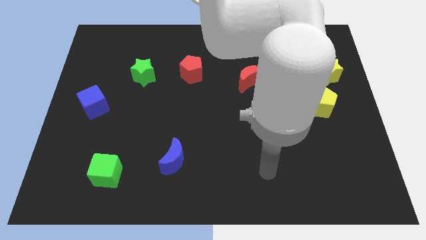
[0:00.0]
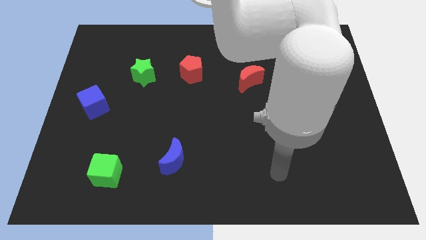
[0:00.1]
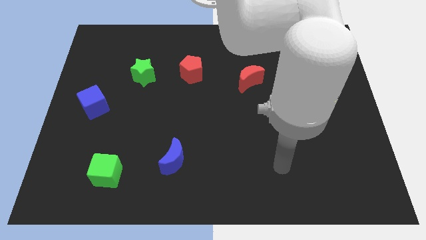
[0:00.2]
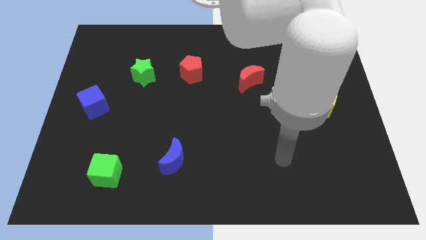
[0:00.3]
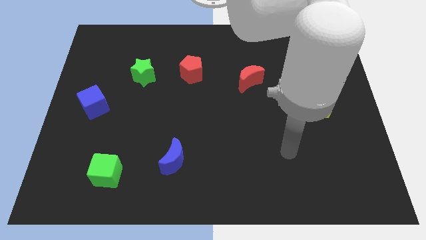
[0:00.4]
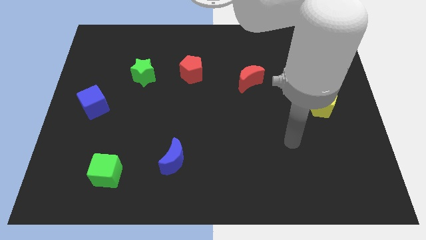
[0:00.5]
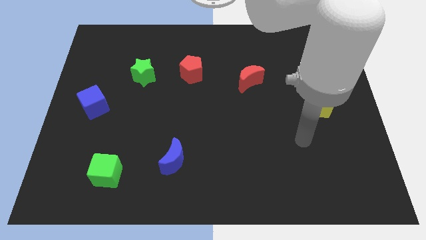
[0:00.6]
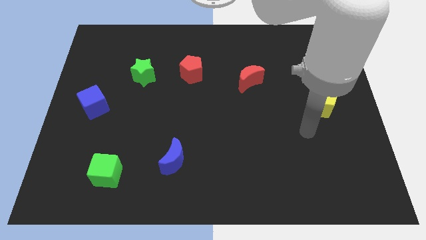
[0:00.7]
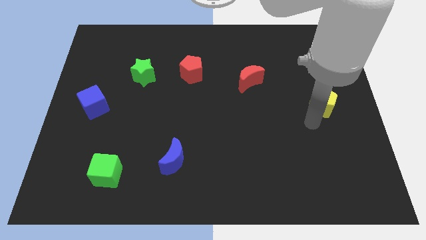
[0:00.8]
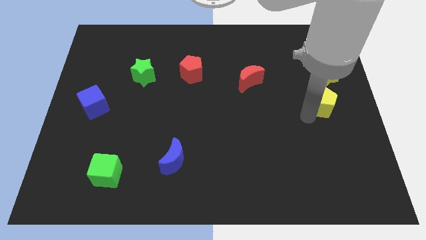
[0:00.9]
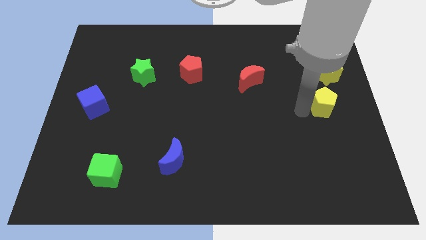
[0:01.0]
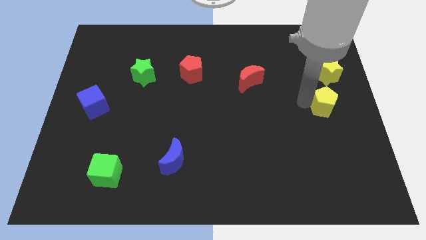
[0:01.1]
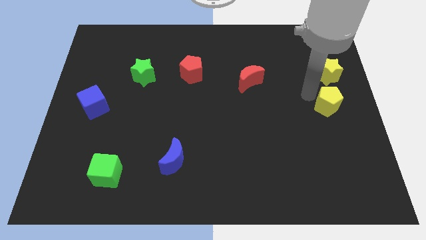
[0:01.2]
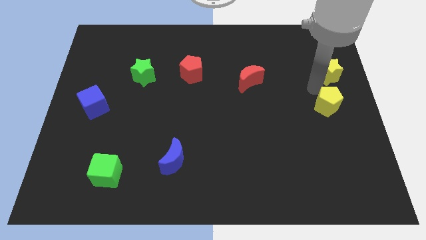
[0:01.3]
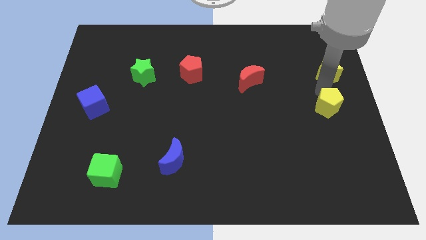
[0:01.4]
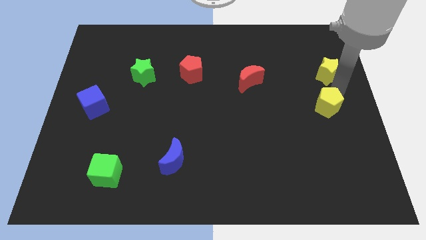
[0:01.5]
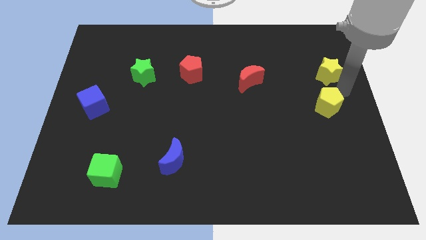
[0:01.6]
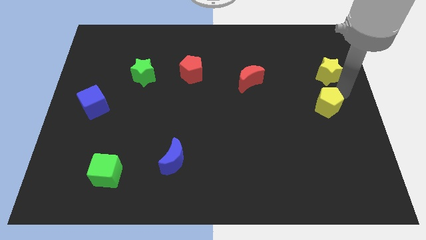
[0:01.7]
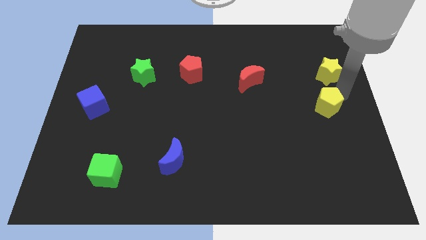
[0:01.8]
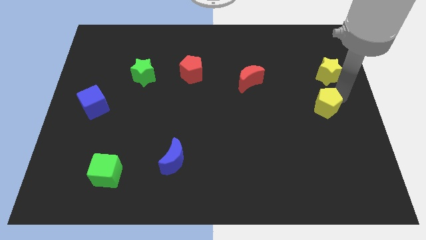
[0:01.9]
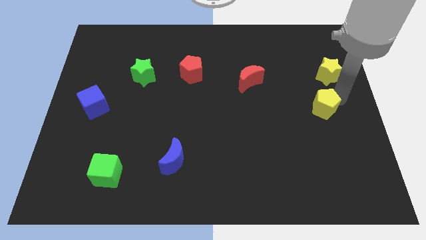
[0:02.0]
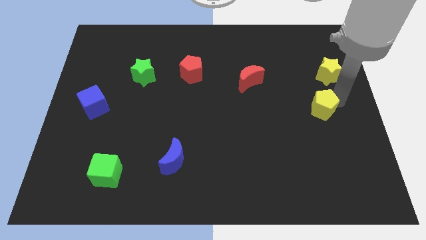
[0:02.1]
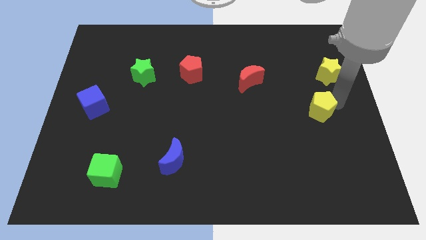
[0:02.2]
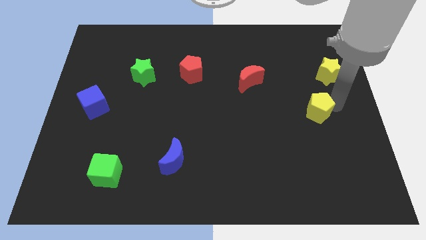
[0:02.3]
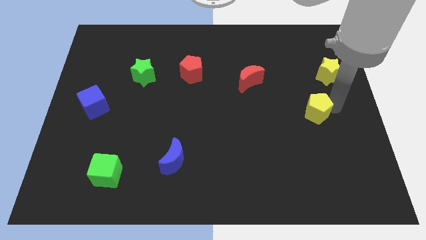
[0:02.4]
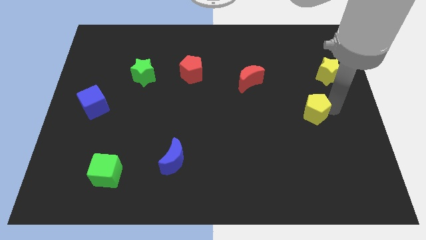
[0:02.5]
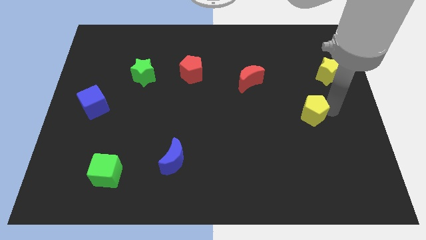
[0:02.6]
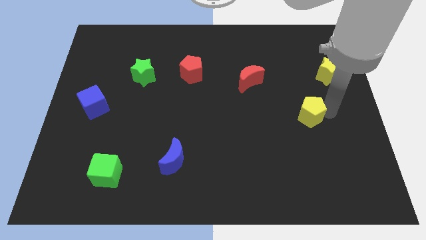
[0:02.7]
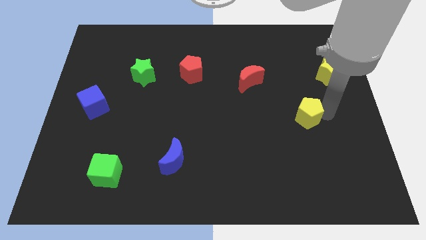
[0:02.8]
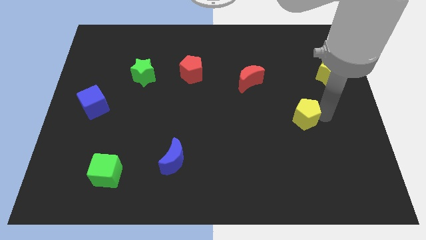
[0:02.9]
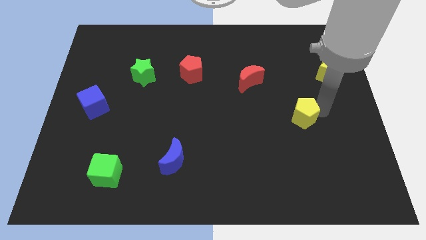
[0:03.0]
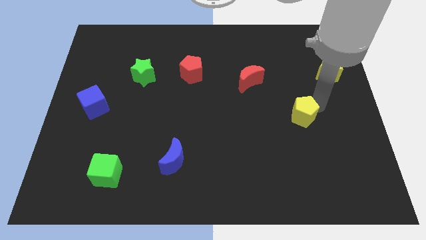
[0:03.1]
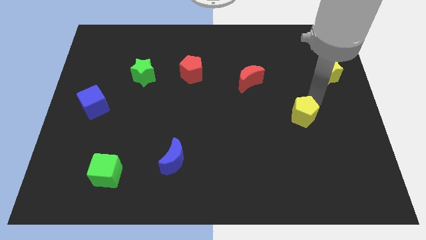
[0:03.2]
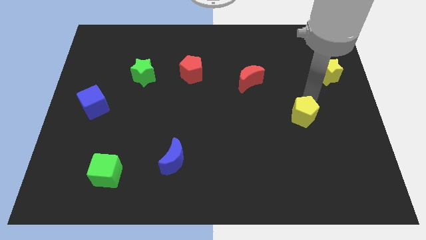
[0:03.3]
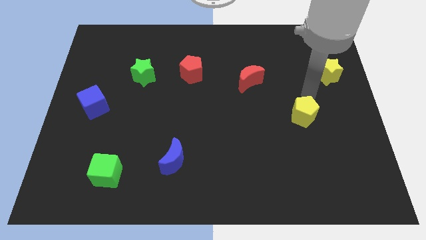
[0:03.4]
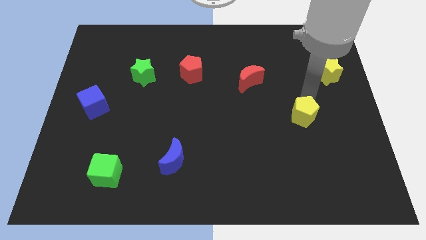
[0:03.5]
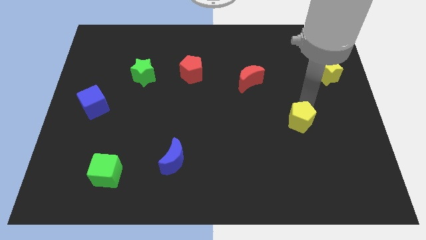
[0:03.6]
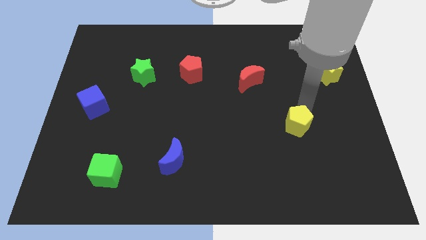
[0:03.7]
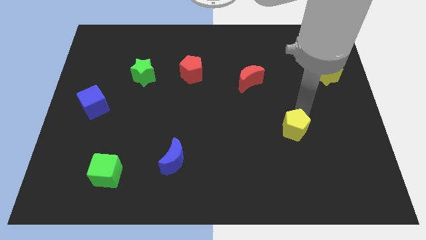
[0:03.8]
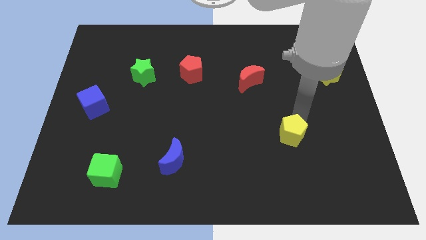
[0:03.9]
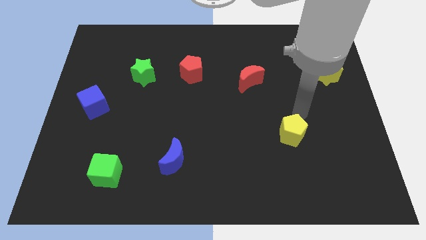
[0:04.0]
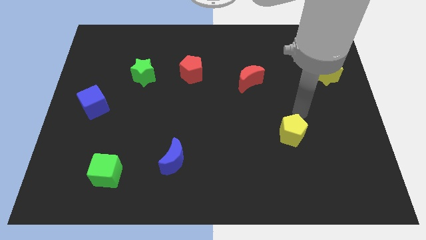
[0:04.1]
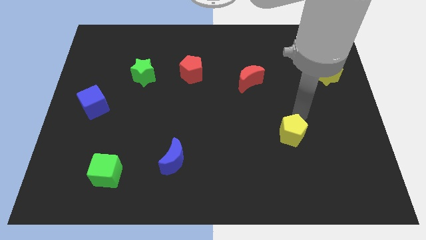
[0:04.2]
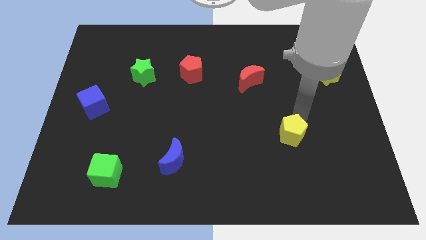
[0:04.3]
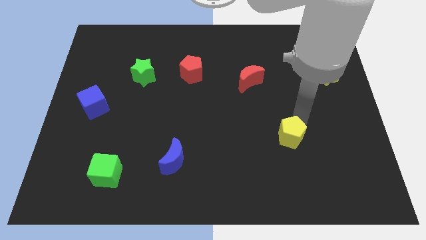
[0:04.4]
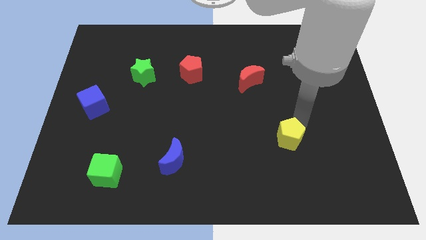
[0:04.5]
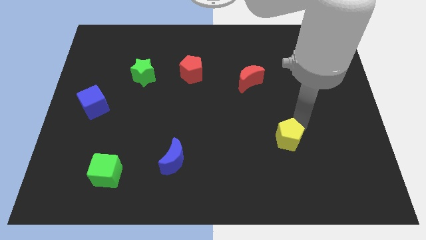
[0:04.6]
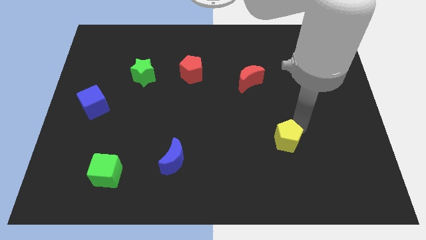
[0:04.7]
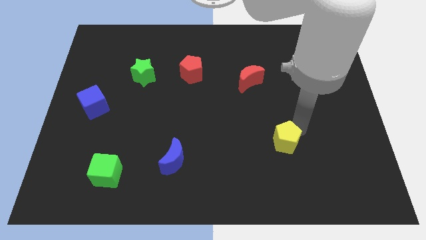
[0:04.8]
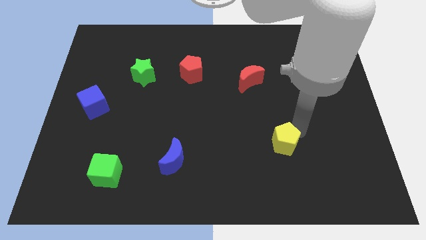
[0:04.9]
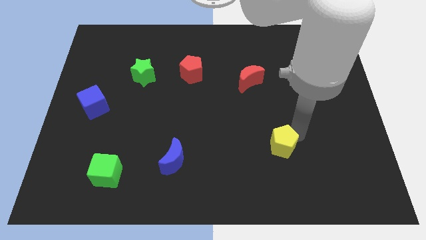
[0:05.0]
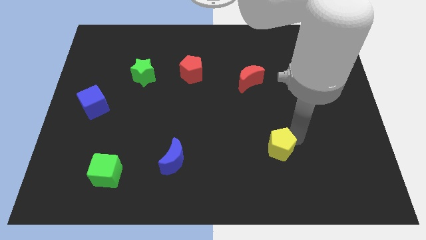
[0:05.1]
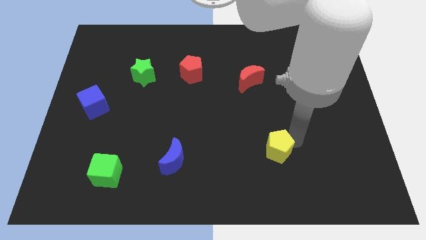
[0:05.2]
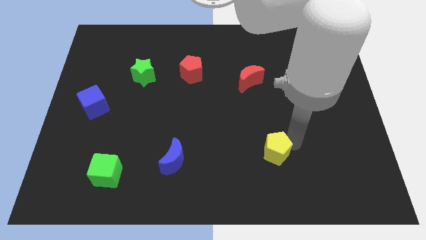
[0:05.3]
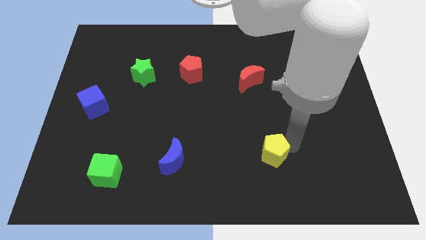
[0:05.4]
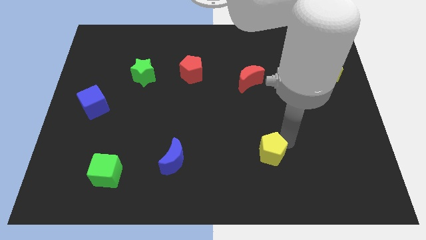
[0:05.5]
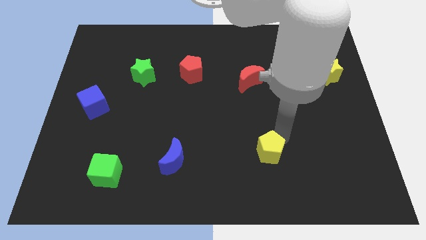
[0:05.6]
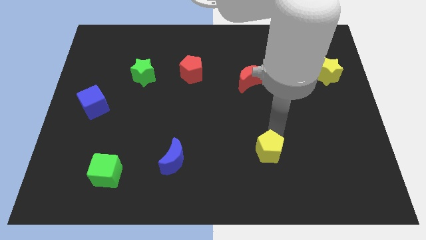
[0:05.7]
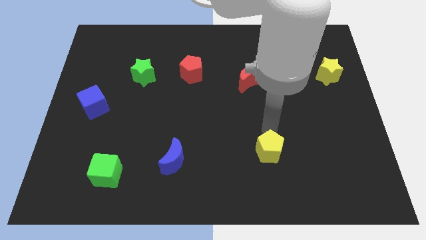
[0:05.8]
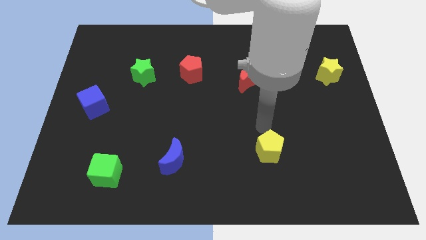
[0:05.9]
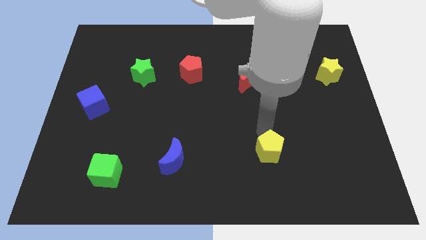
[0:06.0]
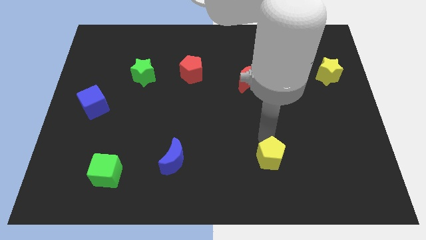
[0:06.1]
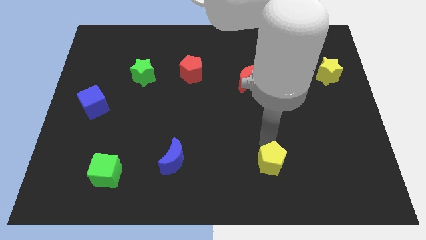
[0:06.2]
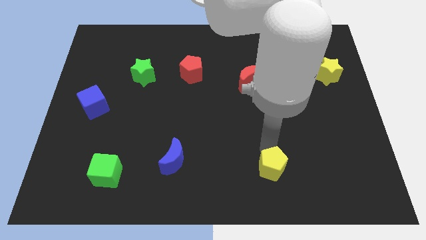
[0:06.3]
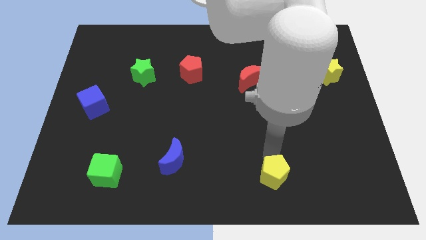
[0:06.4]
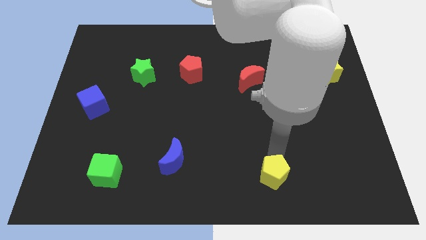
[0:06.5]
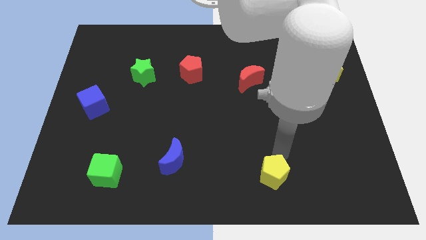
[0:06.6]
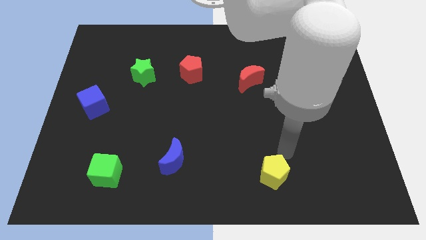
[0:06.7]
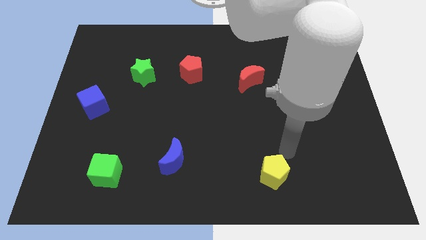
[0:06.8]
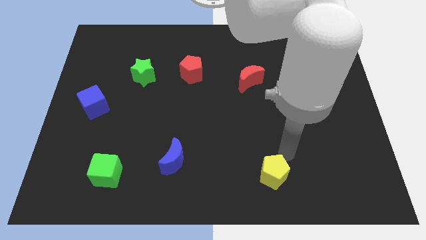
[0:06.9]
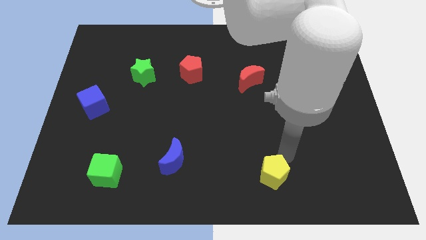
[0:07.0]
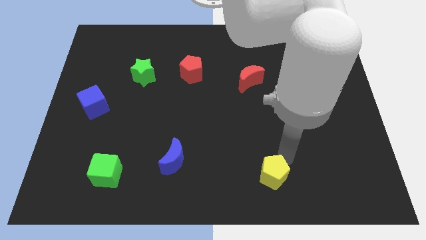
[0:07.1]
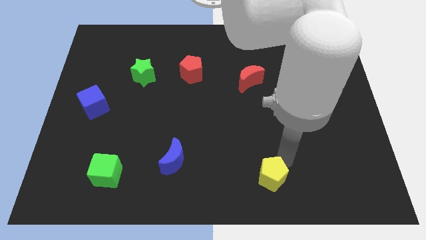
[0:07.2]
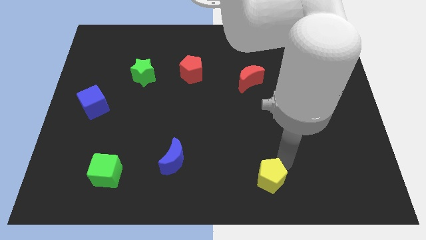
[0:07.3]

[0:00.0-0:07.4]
push the yellow pentagon to the bottom
